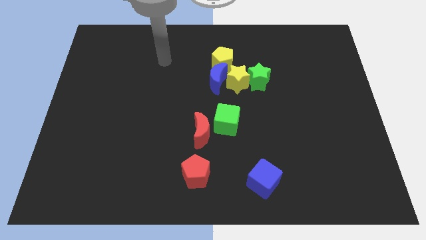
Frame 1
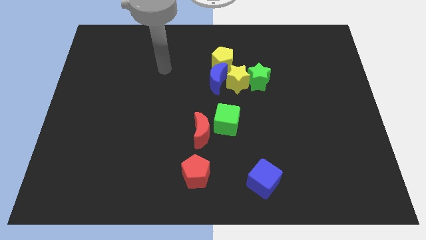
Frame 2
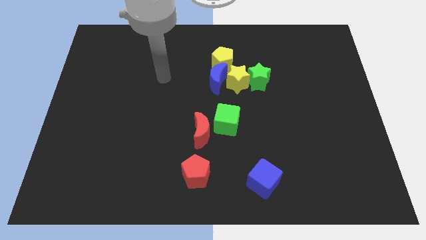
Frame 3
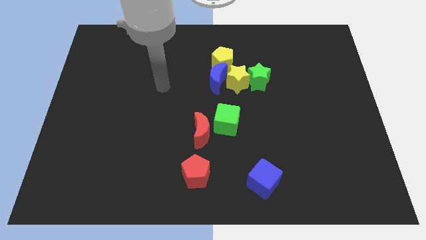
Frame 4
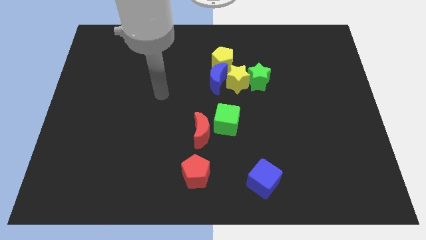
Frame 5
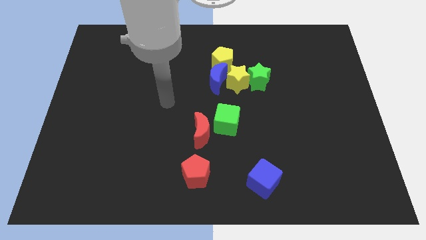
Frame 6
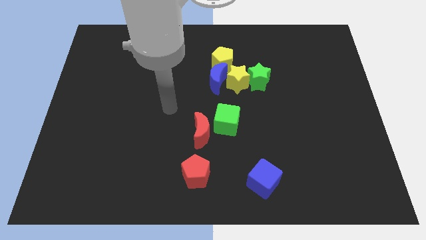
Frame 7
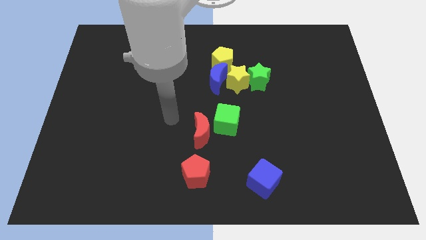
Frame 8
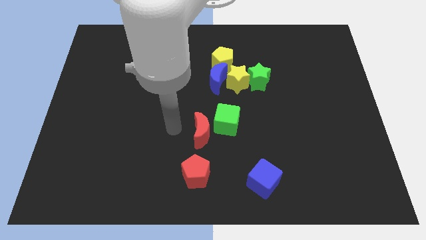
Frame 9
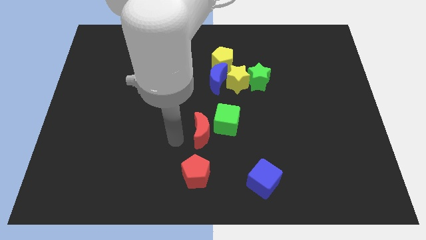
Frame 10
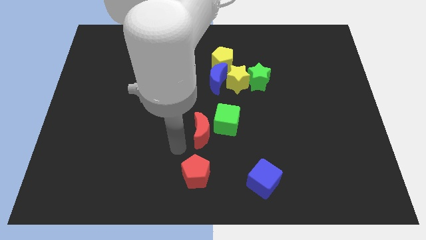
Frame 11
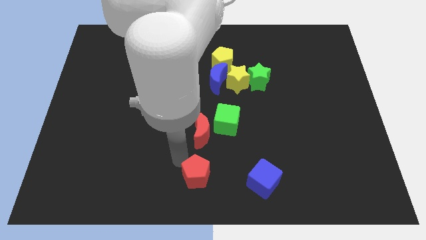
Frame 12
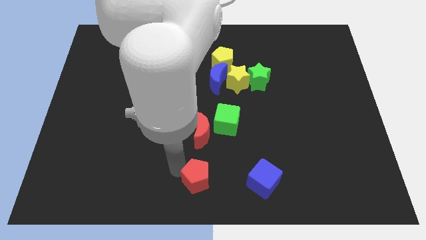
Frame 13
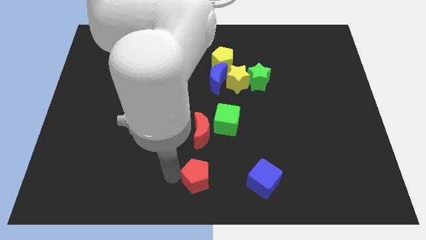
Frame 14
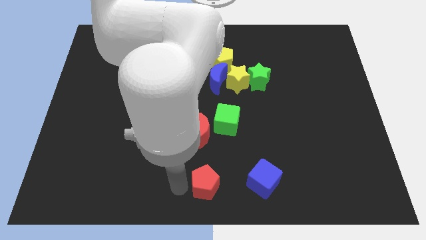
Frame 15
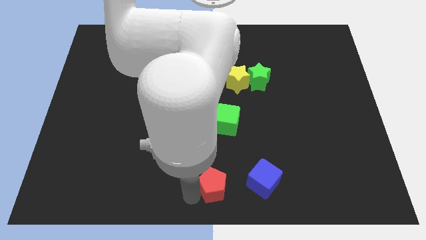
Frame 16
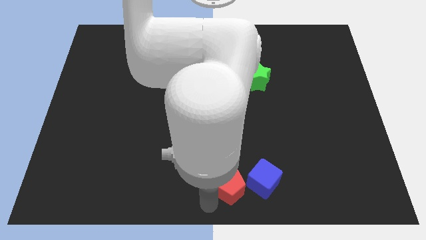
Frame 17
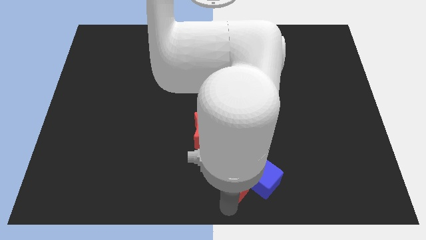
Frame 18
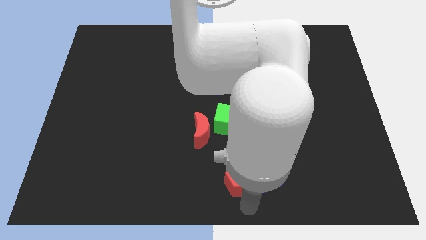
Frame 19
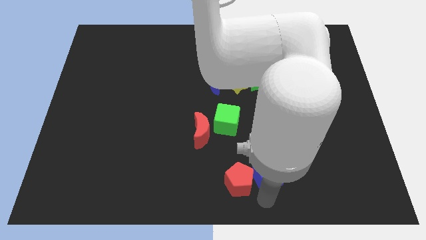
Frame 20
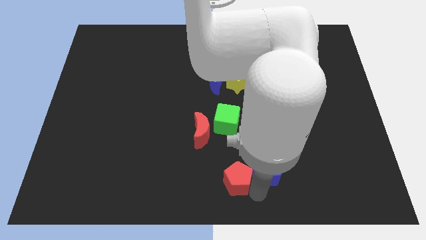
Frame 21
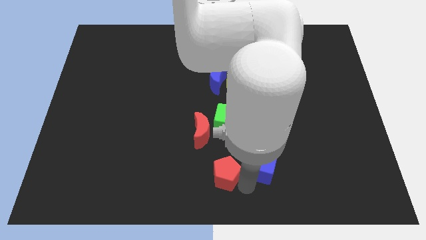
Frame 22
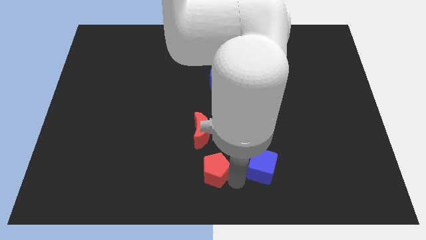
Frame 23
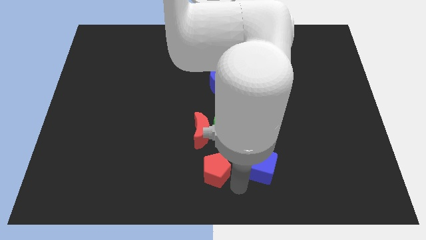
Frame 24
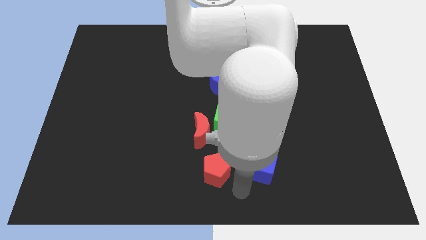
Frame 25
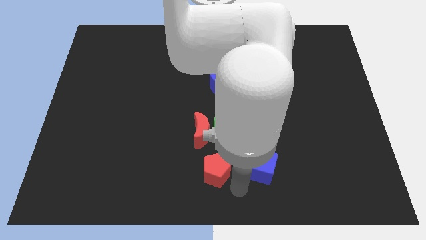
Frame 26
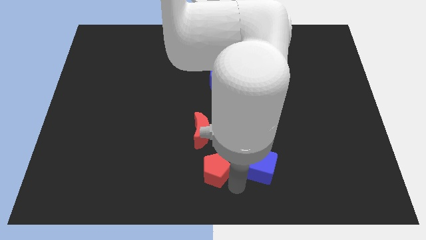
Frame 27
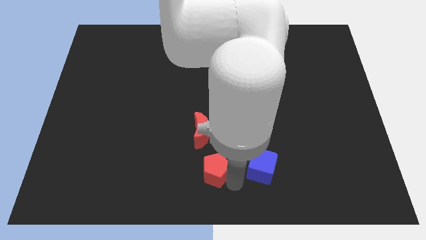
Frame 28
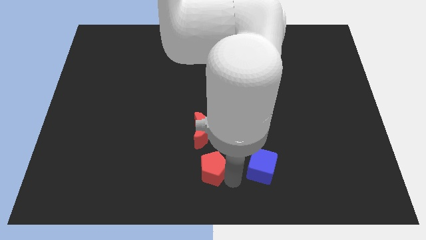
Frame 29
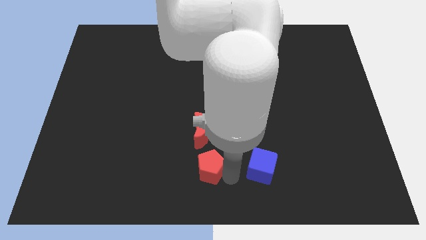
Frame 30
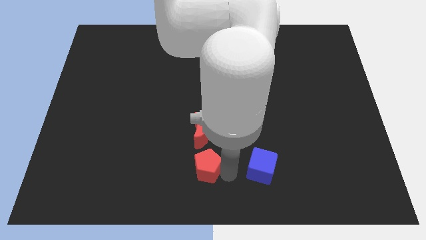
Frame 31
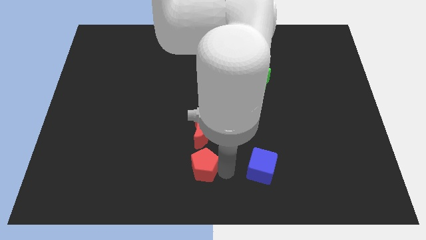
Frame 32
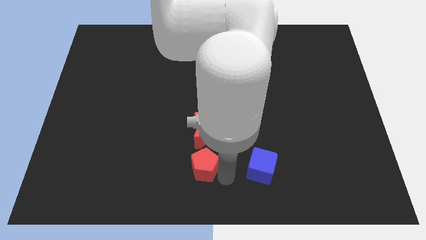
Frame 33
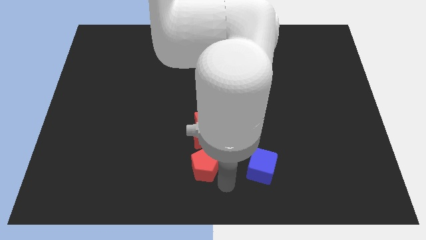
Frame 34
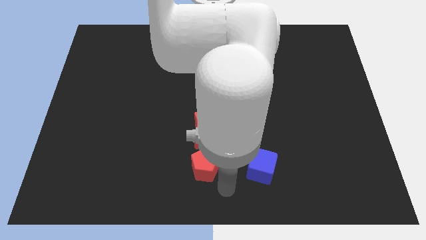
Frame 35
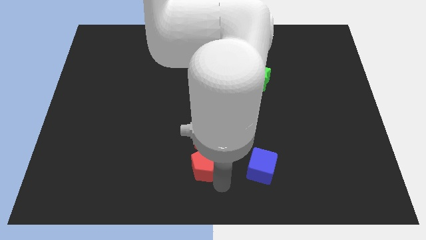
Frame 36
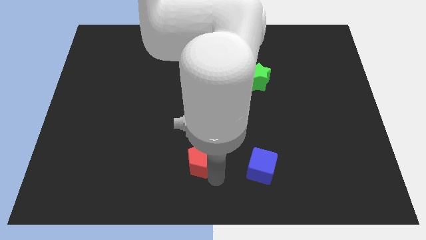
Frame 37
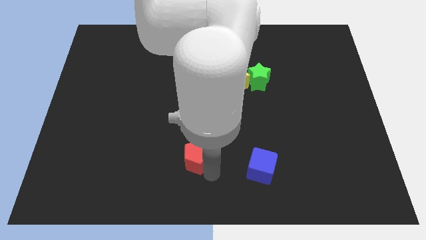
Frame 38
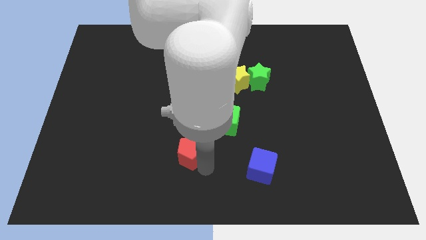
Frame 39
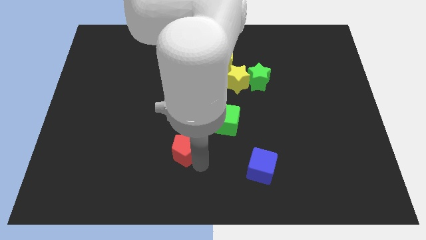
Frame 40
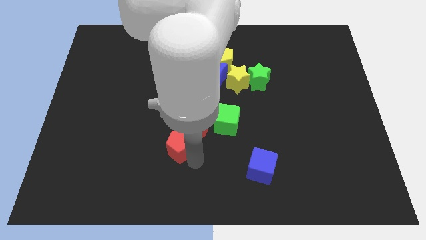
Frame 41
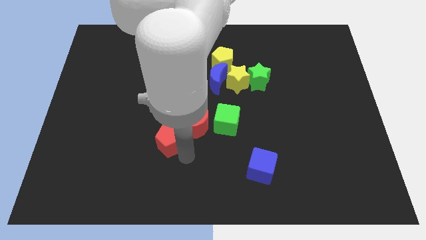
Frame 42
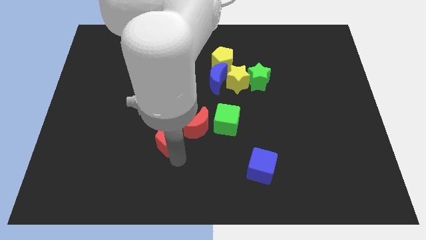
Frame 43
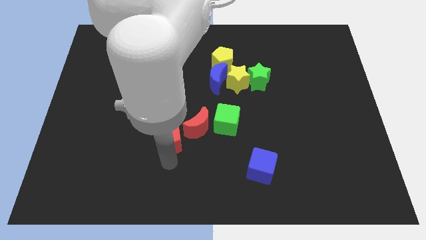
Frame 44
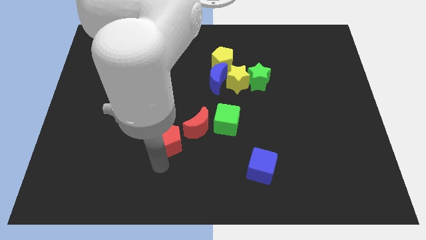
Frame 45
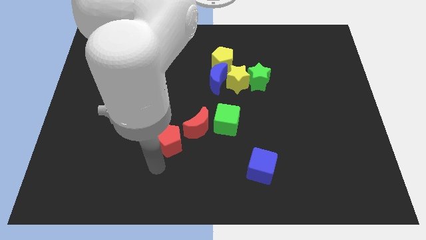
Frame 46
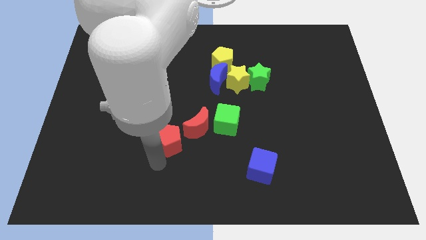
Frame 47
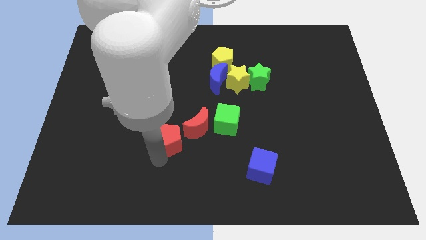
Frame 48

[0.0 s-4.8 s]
move the red pentagon up slightly

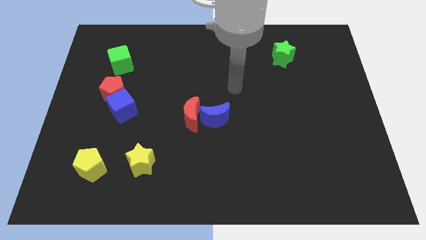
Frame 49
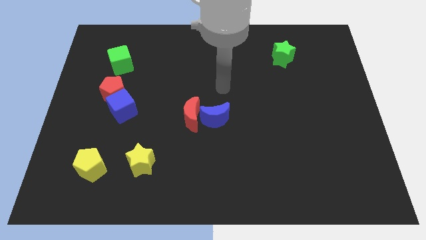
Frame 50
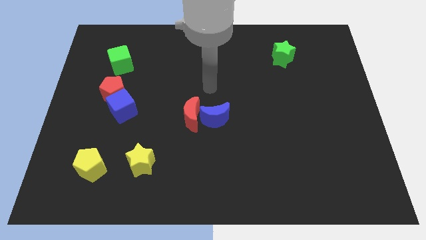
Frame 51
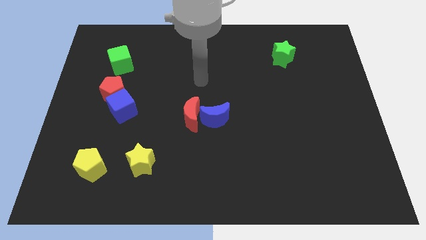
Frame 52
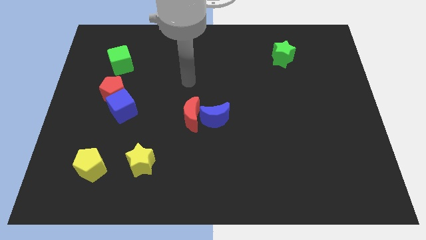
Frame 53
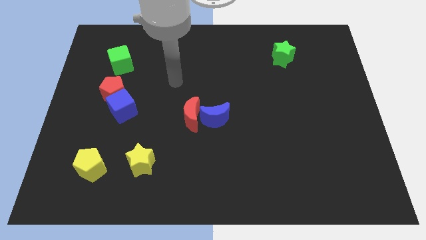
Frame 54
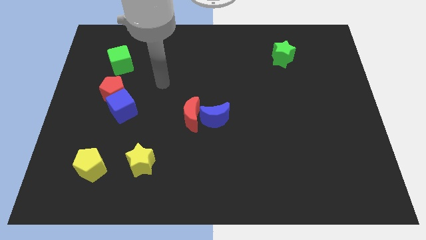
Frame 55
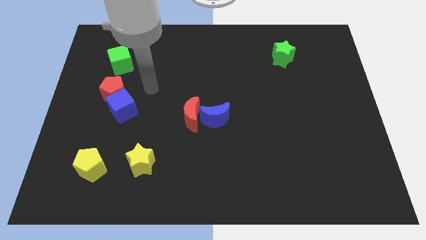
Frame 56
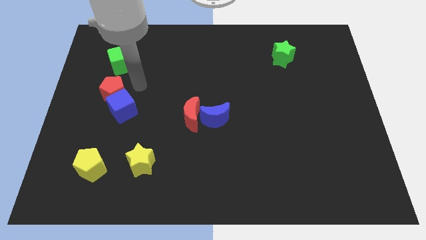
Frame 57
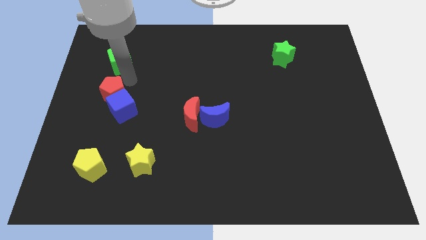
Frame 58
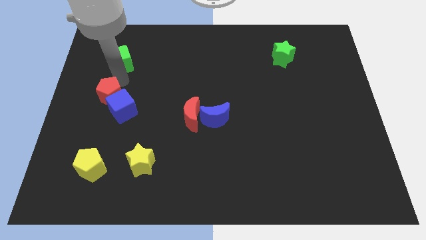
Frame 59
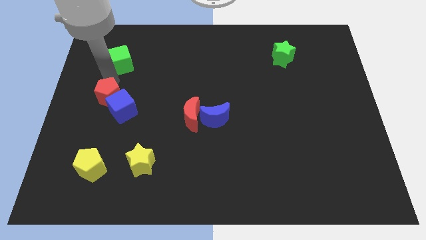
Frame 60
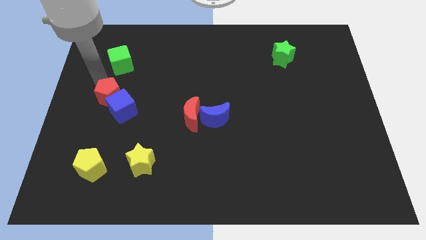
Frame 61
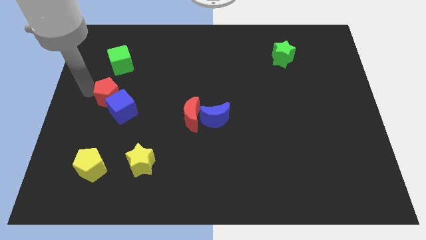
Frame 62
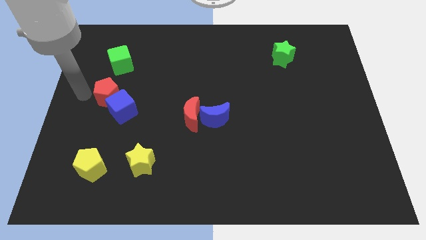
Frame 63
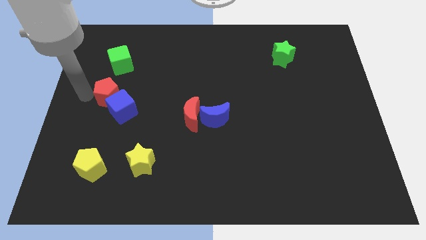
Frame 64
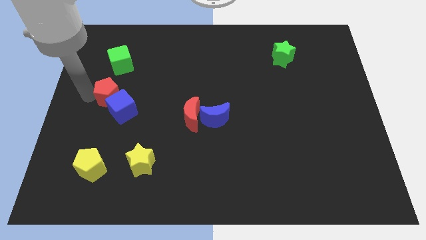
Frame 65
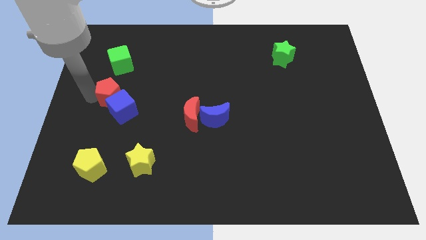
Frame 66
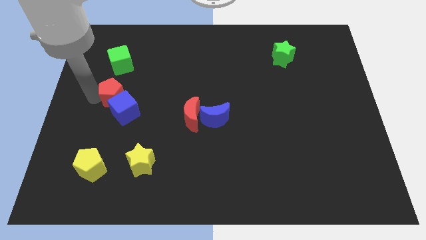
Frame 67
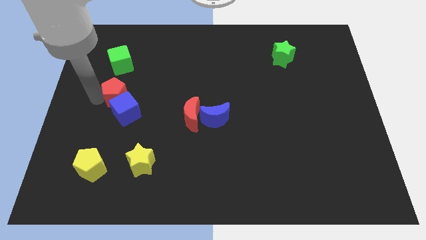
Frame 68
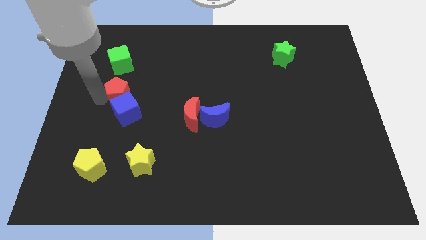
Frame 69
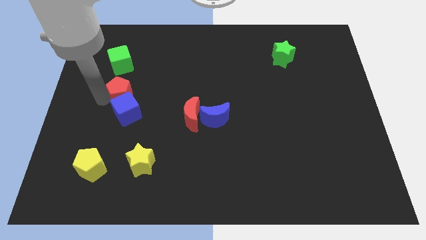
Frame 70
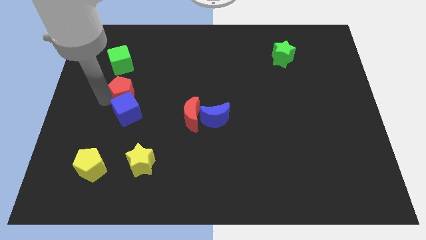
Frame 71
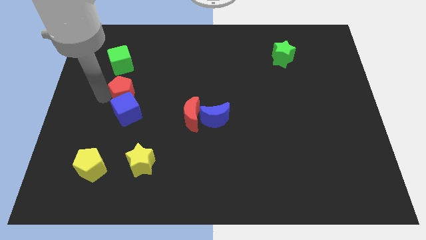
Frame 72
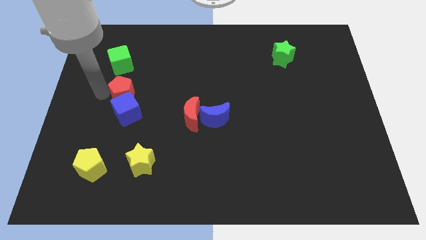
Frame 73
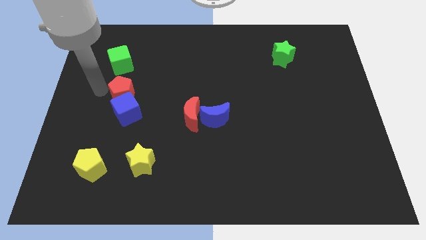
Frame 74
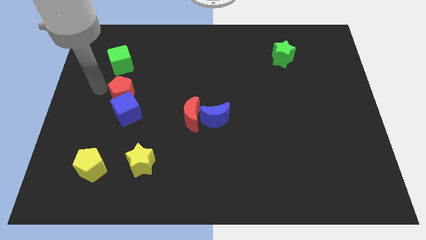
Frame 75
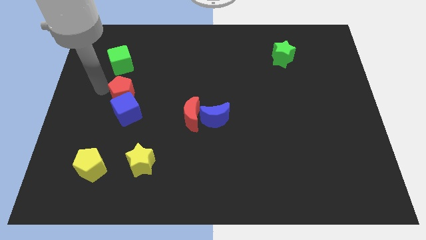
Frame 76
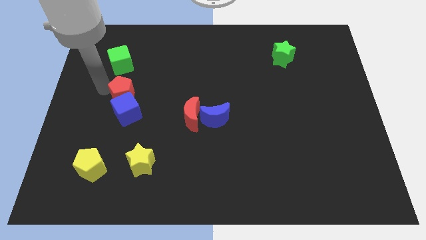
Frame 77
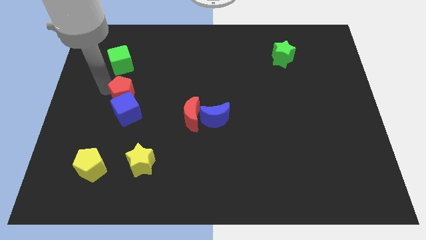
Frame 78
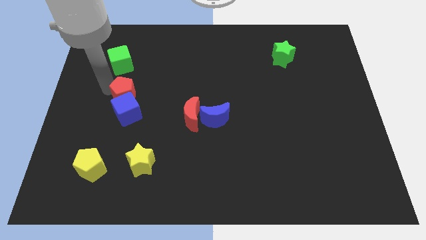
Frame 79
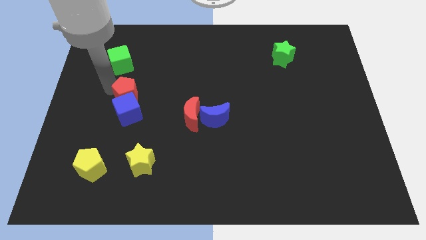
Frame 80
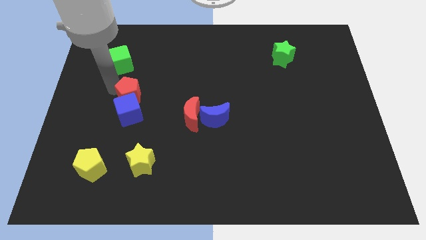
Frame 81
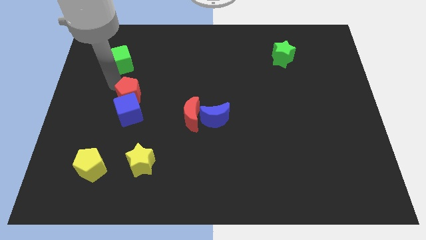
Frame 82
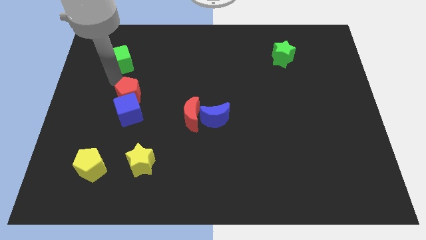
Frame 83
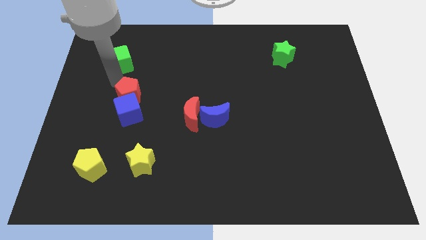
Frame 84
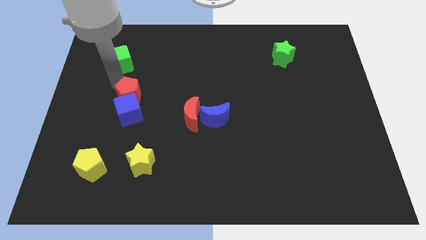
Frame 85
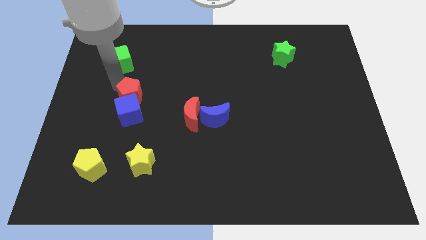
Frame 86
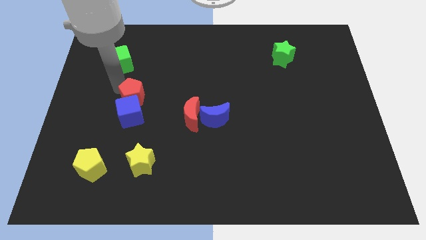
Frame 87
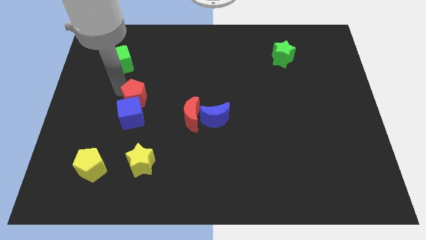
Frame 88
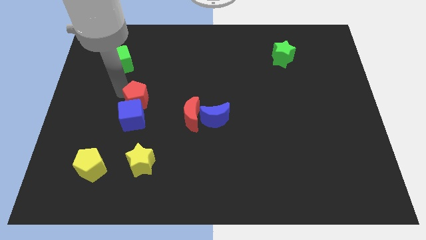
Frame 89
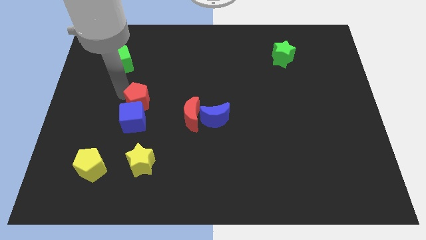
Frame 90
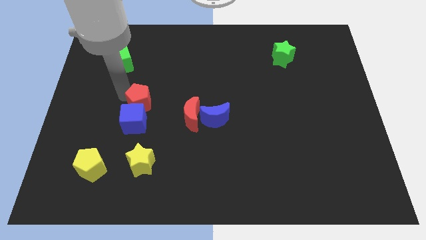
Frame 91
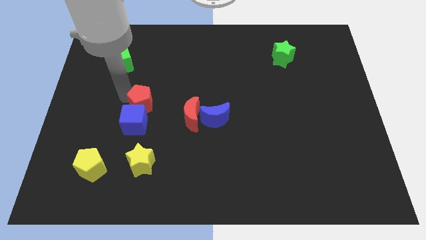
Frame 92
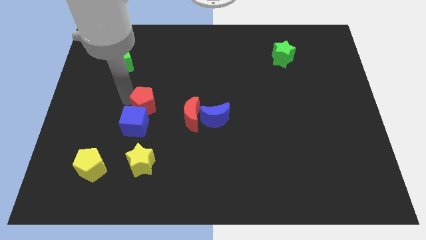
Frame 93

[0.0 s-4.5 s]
push the red pentagon diagonally down and right slightly
